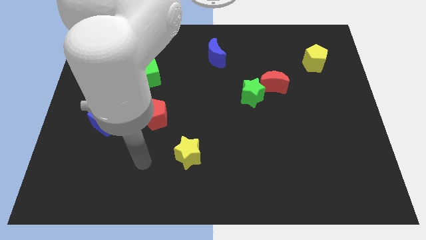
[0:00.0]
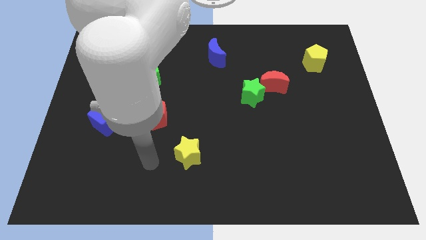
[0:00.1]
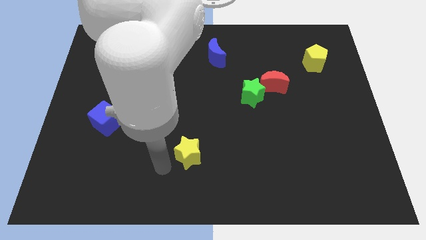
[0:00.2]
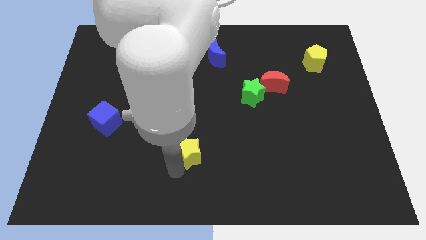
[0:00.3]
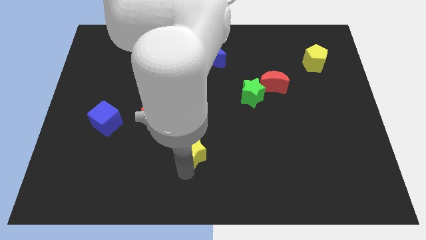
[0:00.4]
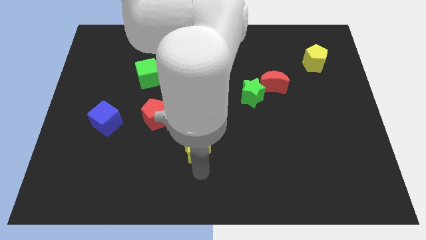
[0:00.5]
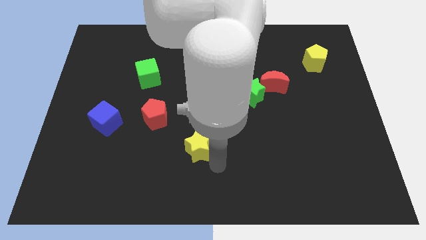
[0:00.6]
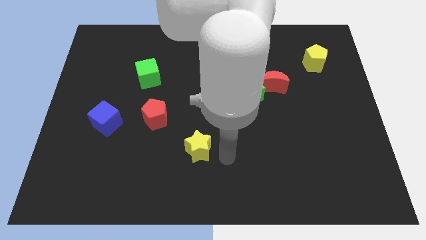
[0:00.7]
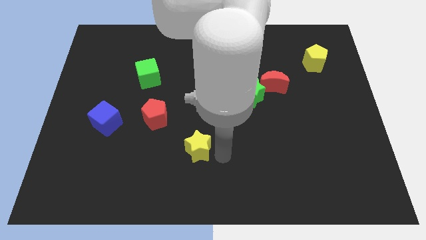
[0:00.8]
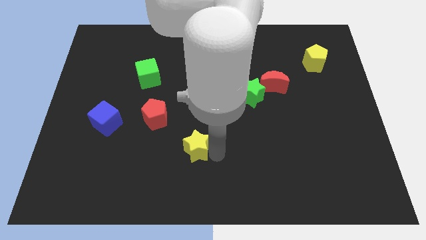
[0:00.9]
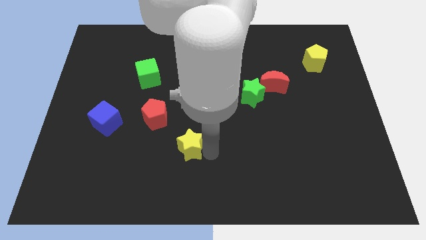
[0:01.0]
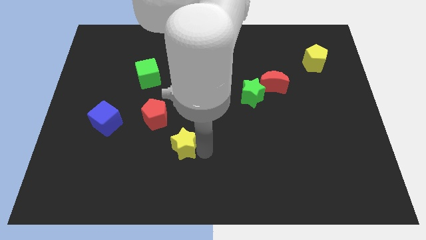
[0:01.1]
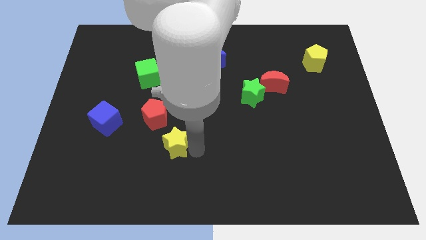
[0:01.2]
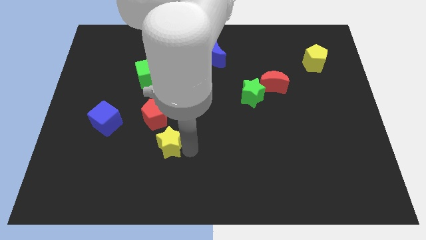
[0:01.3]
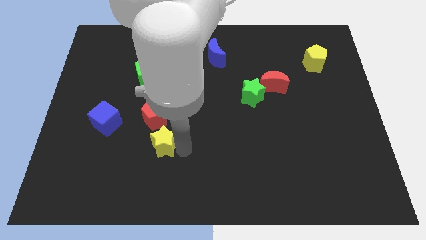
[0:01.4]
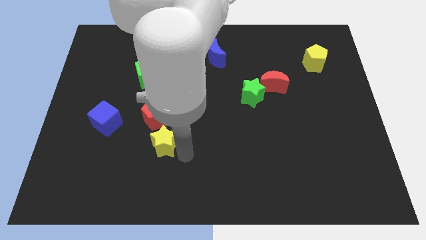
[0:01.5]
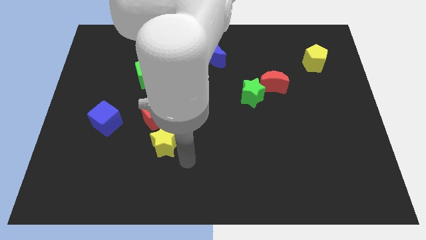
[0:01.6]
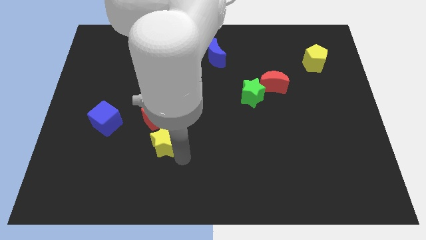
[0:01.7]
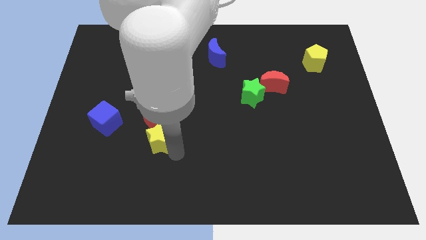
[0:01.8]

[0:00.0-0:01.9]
slightly slide the yellow star upwards and then to the left

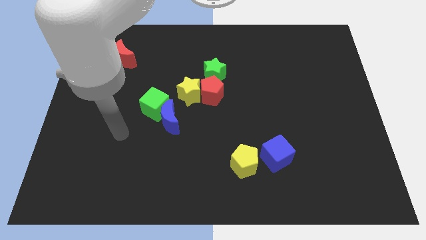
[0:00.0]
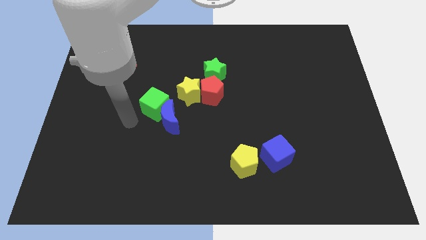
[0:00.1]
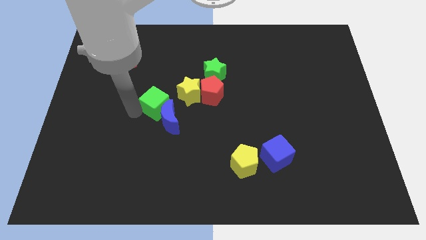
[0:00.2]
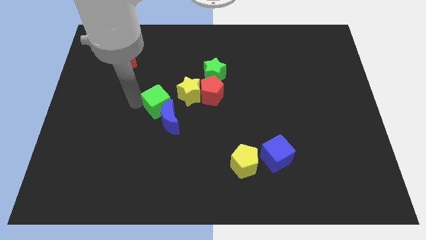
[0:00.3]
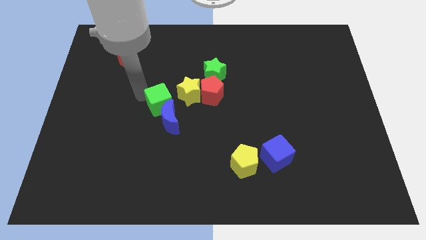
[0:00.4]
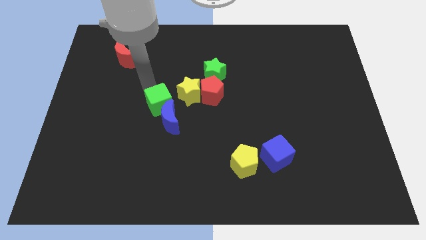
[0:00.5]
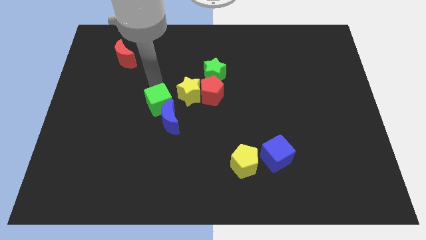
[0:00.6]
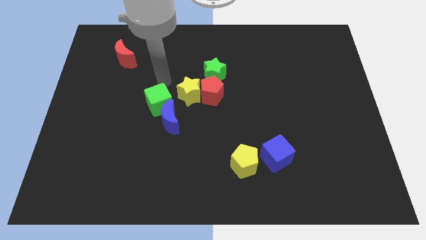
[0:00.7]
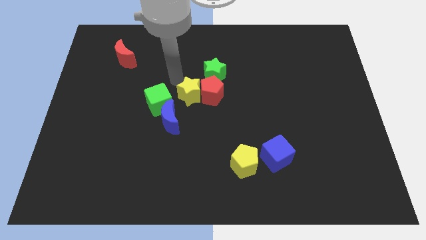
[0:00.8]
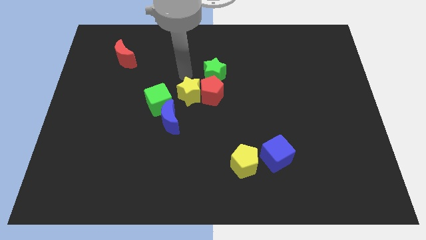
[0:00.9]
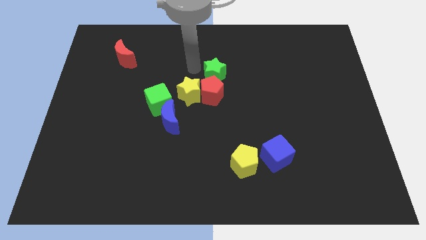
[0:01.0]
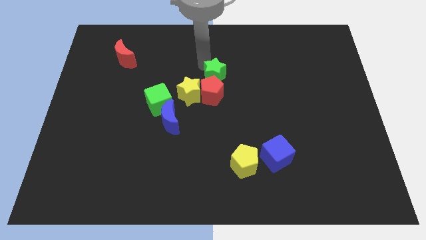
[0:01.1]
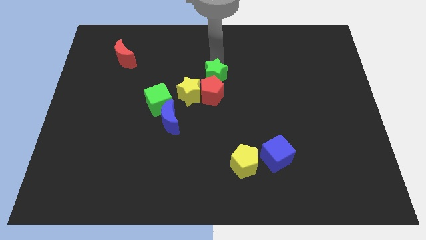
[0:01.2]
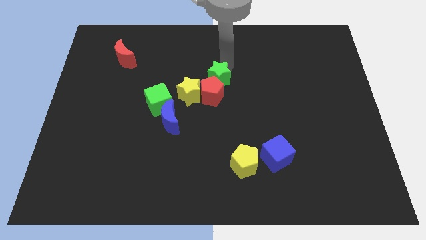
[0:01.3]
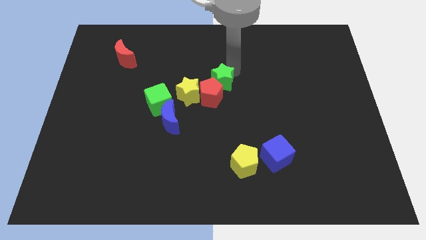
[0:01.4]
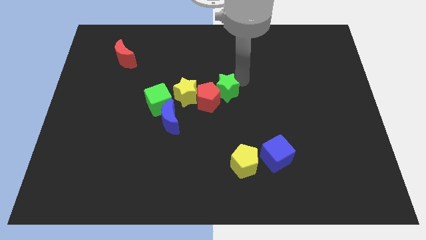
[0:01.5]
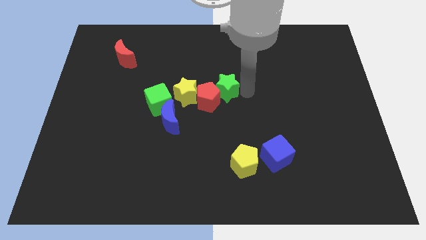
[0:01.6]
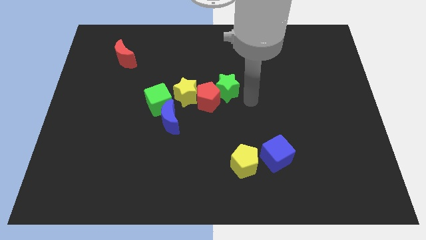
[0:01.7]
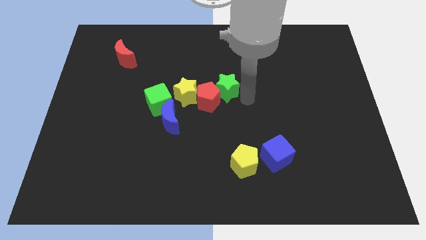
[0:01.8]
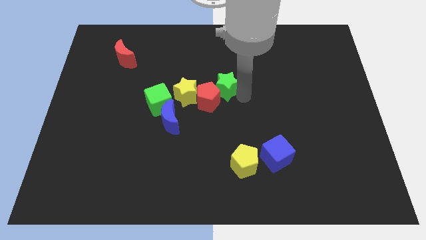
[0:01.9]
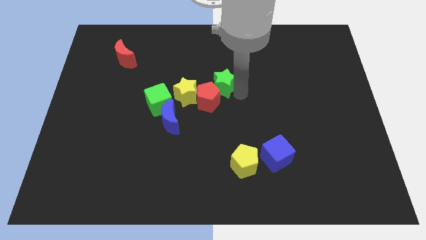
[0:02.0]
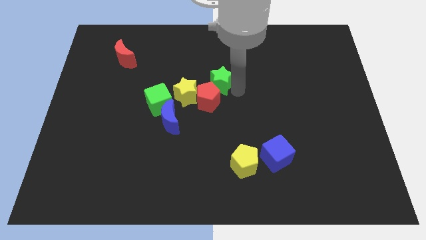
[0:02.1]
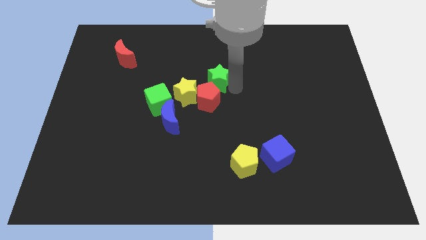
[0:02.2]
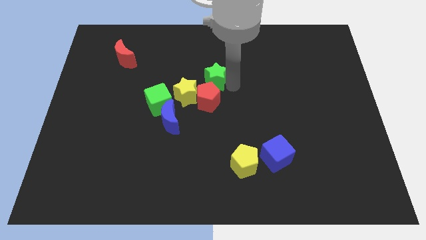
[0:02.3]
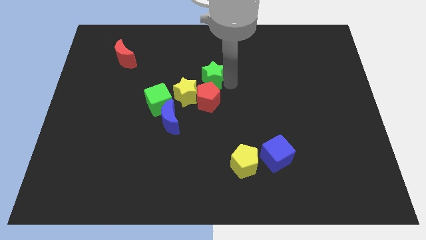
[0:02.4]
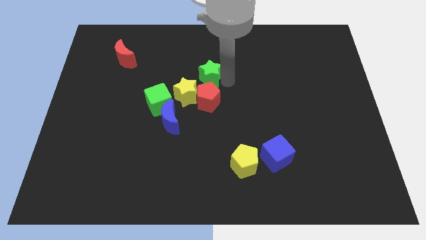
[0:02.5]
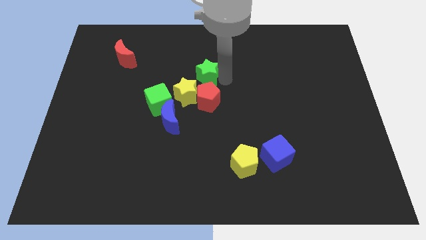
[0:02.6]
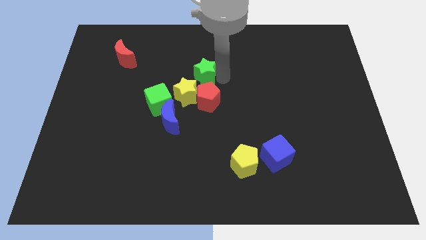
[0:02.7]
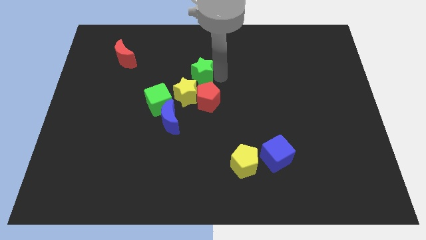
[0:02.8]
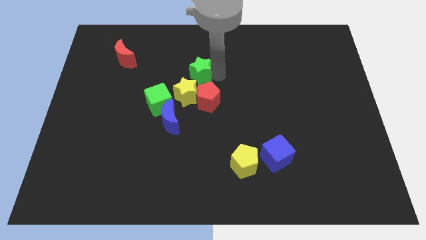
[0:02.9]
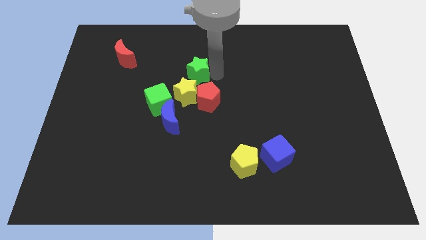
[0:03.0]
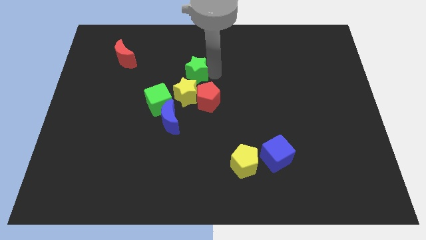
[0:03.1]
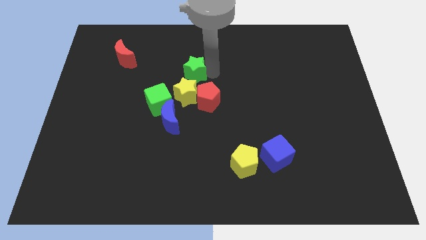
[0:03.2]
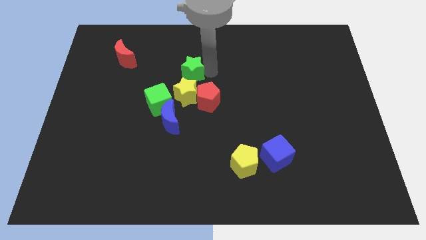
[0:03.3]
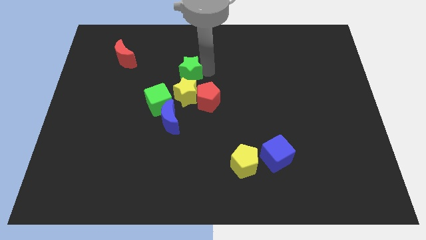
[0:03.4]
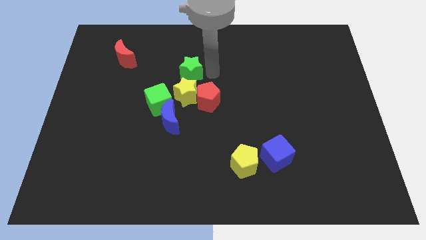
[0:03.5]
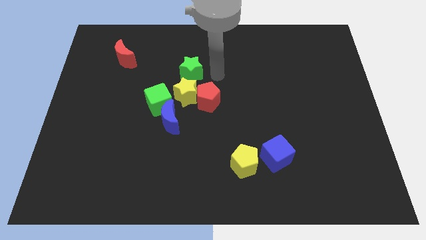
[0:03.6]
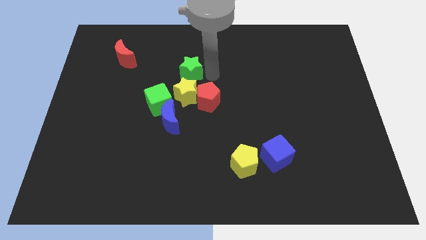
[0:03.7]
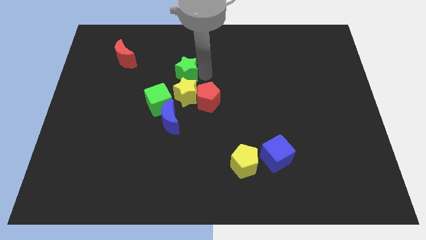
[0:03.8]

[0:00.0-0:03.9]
push the green star to the left slightly

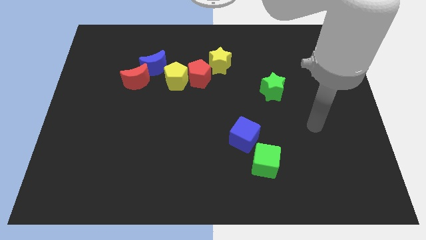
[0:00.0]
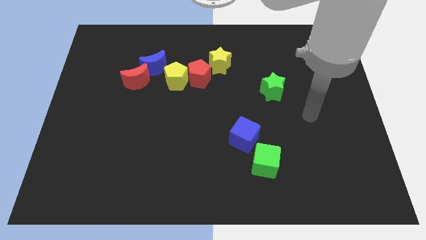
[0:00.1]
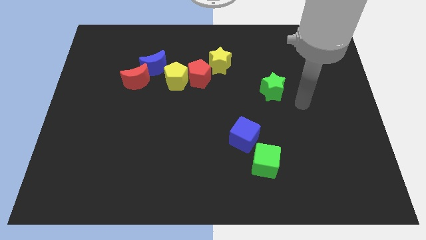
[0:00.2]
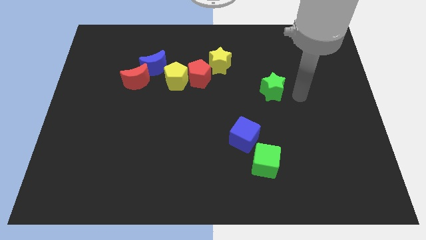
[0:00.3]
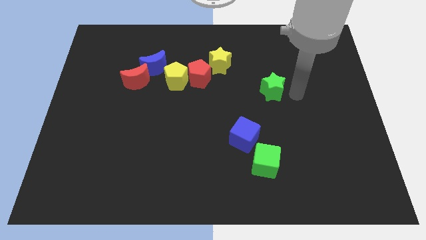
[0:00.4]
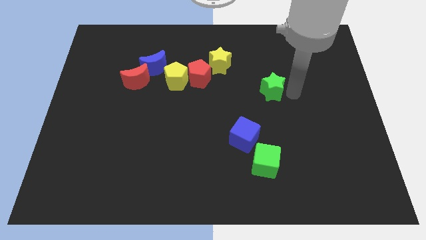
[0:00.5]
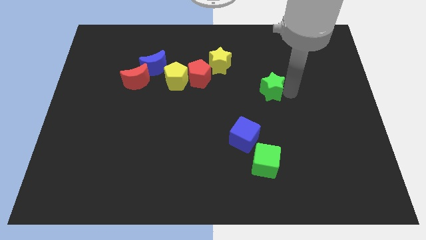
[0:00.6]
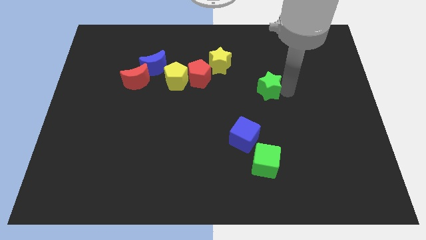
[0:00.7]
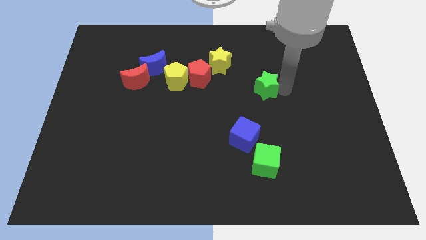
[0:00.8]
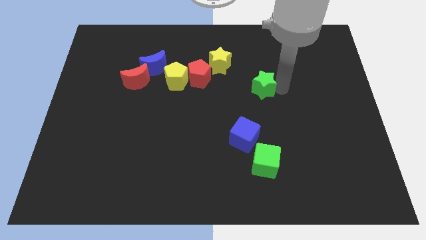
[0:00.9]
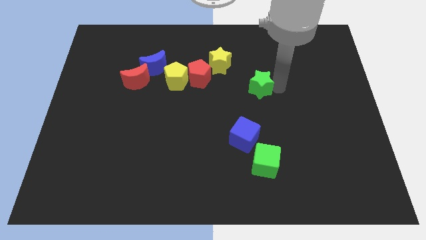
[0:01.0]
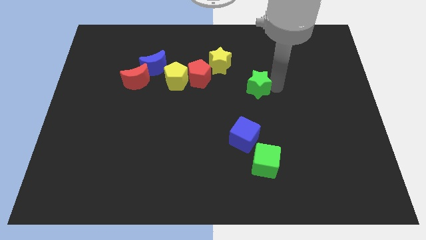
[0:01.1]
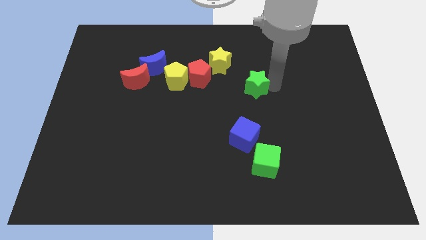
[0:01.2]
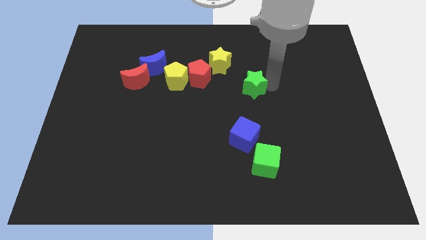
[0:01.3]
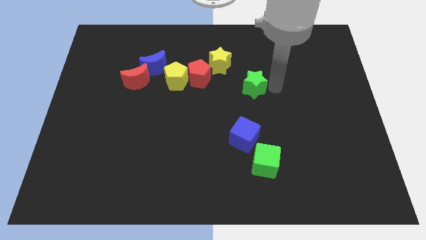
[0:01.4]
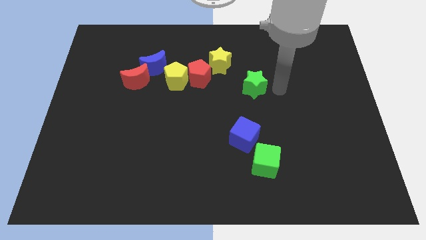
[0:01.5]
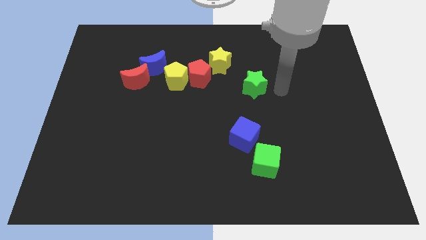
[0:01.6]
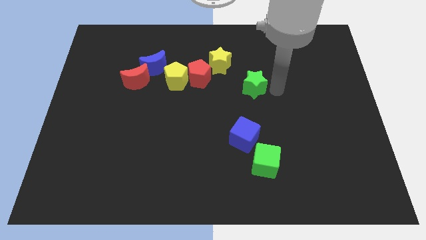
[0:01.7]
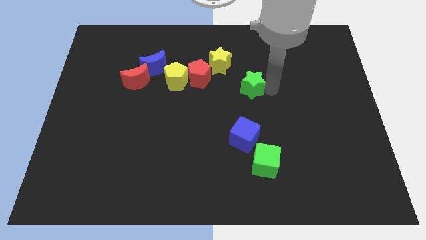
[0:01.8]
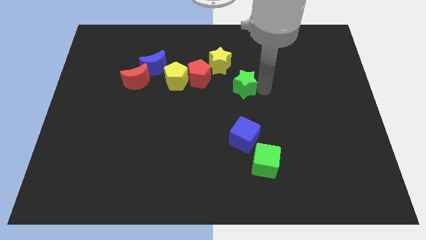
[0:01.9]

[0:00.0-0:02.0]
slide the green star slightly to the left

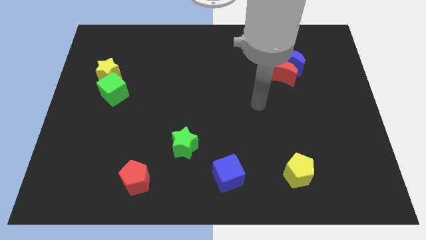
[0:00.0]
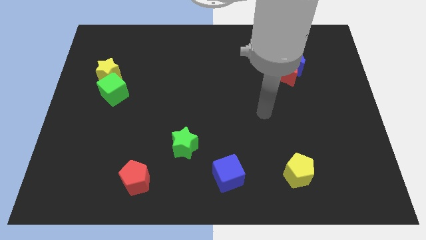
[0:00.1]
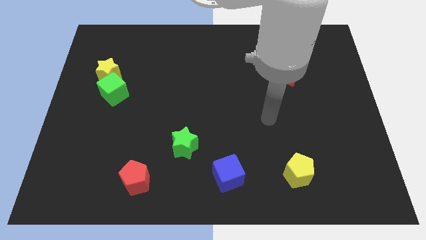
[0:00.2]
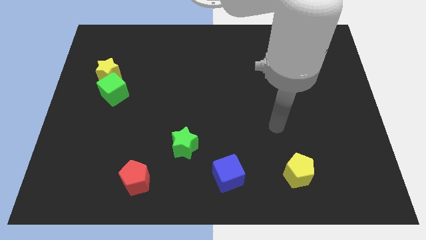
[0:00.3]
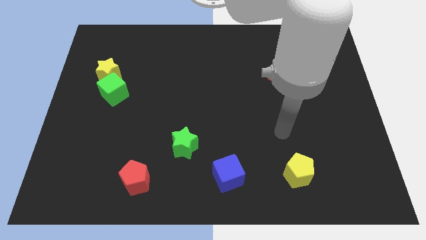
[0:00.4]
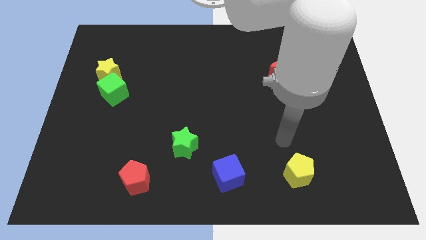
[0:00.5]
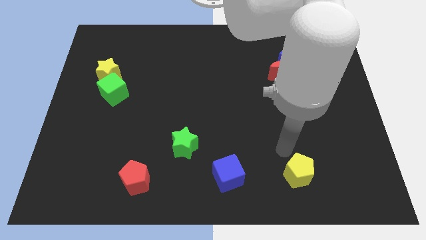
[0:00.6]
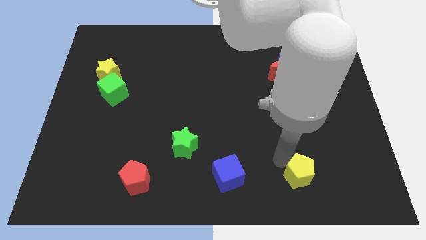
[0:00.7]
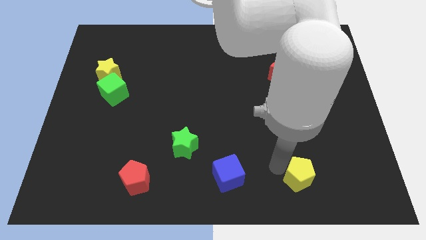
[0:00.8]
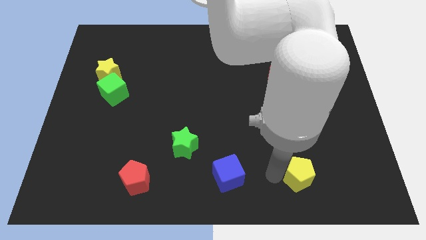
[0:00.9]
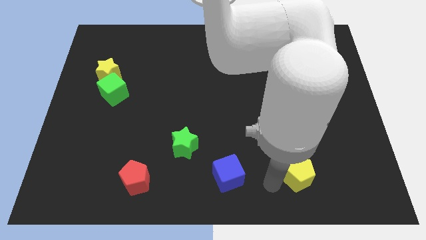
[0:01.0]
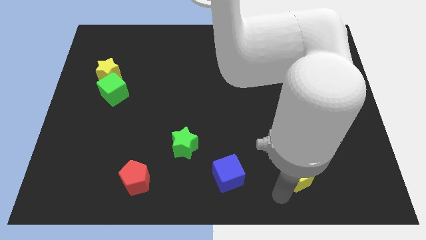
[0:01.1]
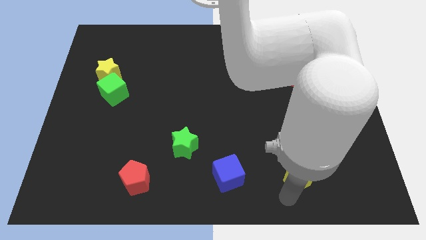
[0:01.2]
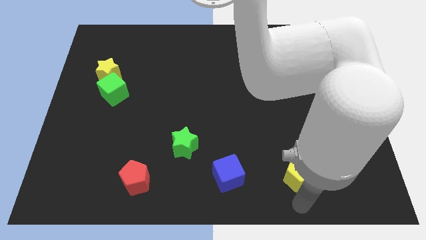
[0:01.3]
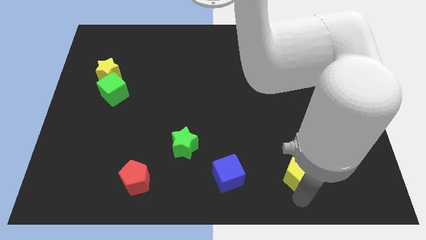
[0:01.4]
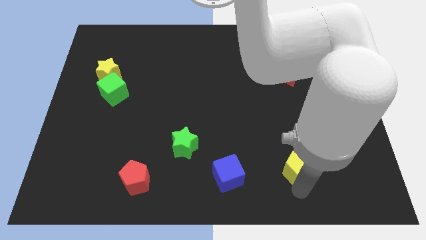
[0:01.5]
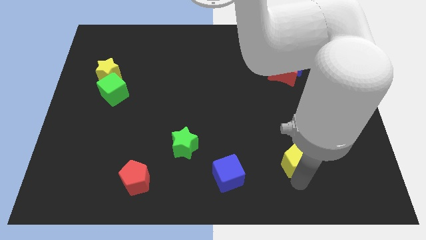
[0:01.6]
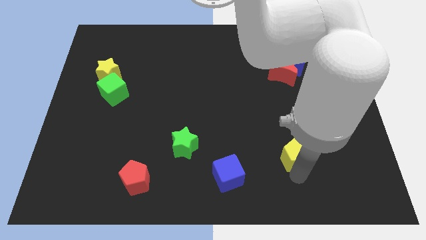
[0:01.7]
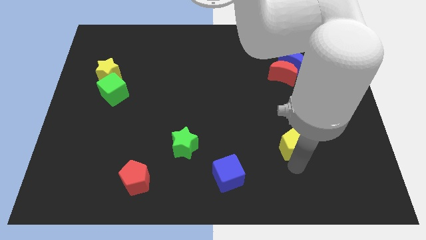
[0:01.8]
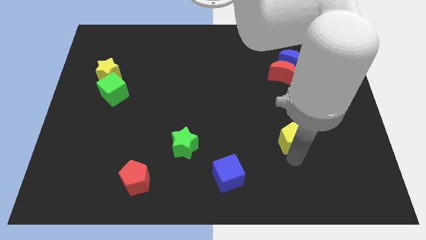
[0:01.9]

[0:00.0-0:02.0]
slightly move the yellow pentagon upwards
